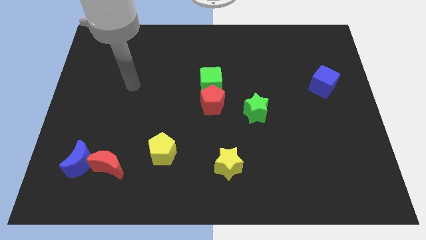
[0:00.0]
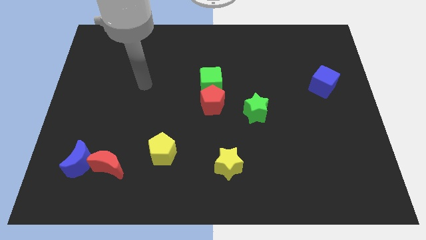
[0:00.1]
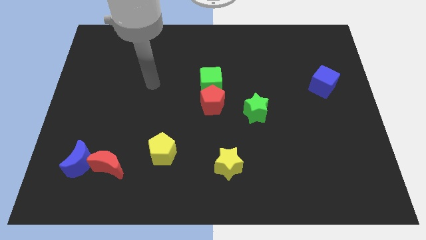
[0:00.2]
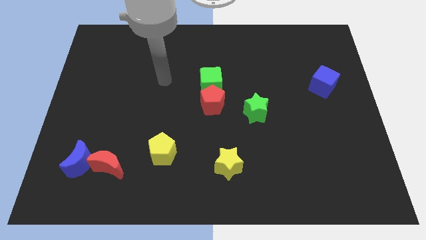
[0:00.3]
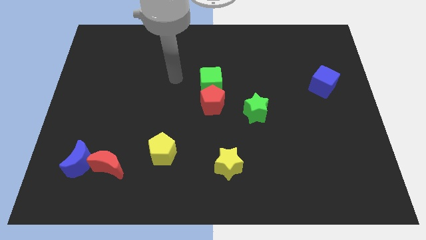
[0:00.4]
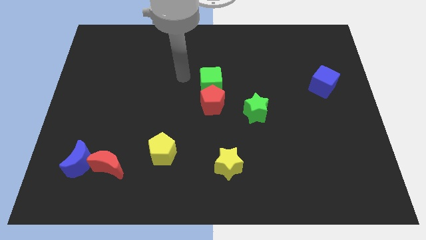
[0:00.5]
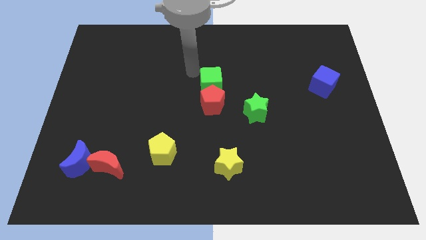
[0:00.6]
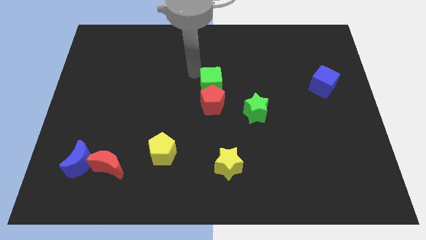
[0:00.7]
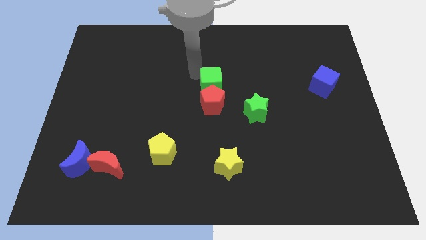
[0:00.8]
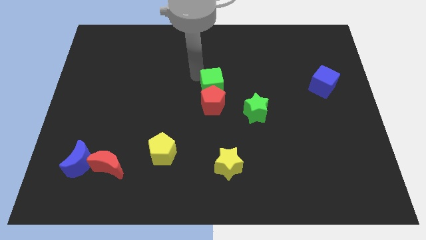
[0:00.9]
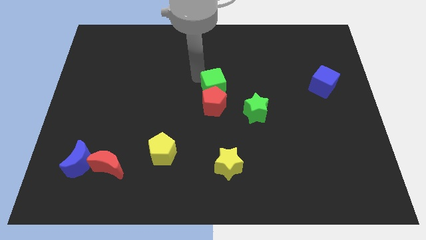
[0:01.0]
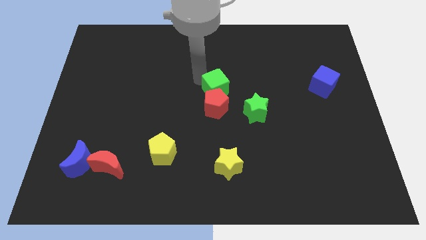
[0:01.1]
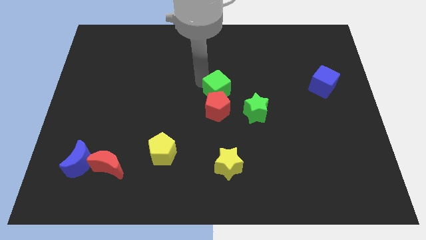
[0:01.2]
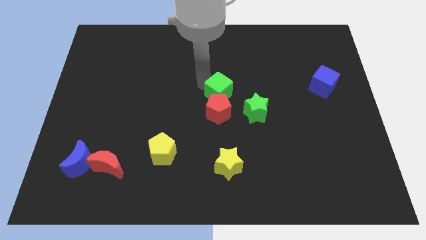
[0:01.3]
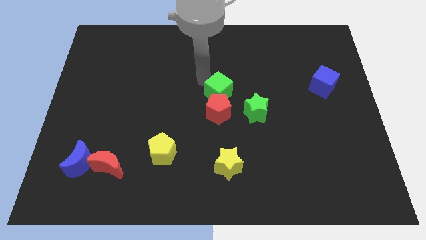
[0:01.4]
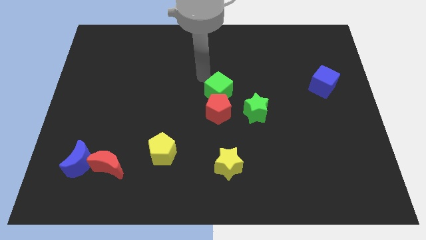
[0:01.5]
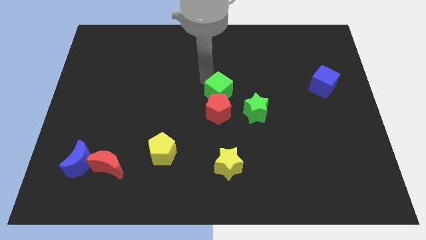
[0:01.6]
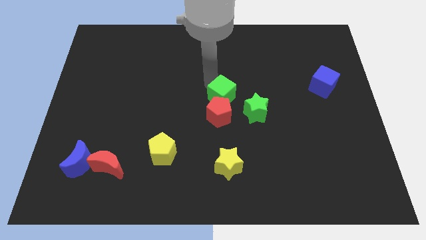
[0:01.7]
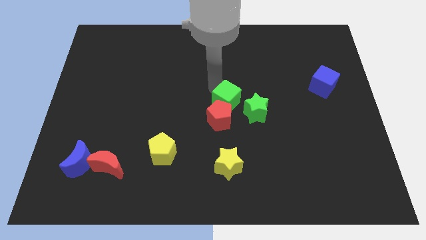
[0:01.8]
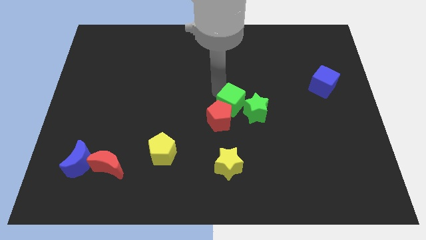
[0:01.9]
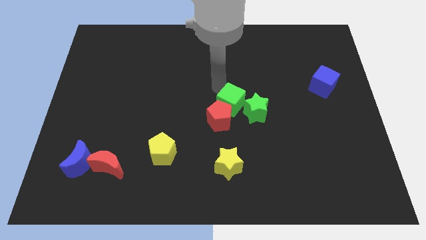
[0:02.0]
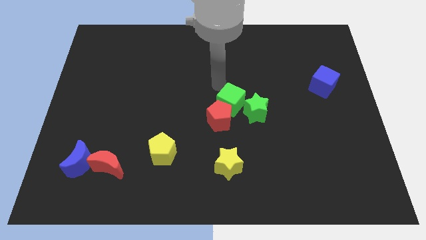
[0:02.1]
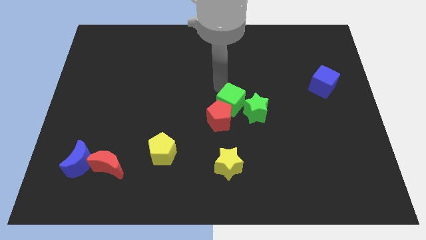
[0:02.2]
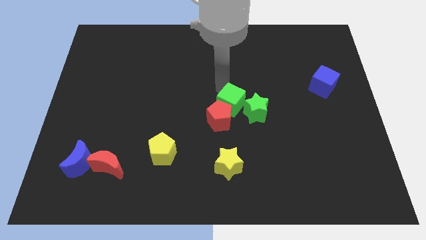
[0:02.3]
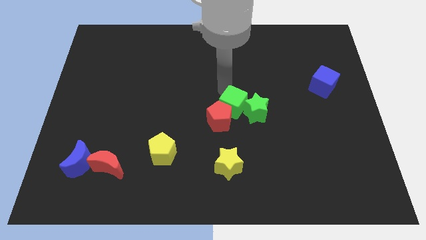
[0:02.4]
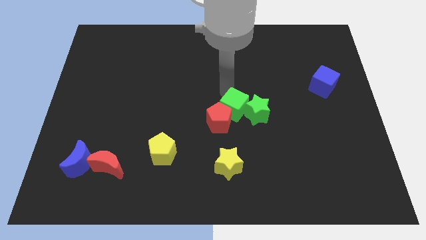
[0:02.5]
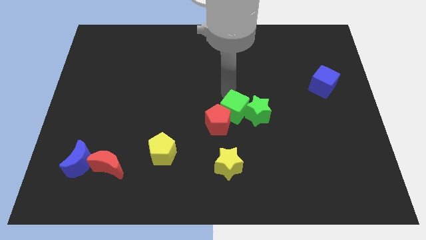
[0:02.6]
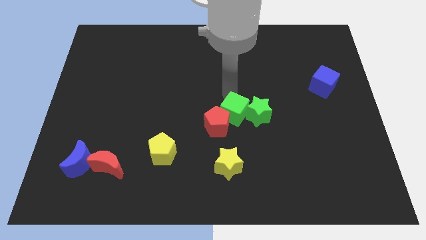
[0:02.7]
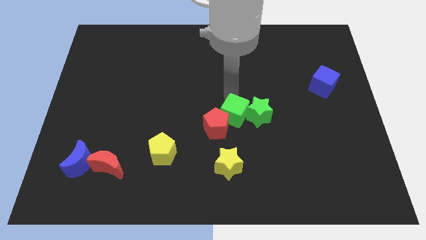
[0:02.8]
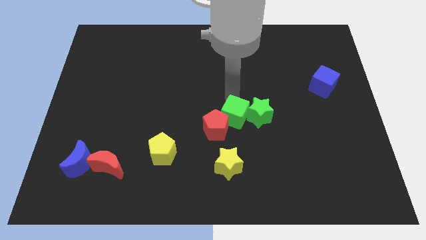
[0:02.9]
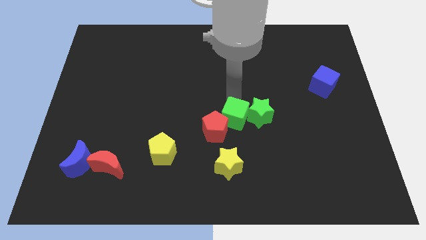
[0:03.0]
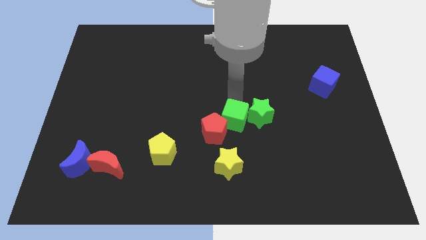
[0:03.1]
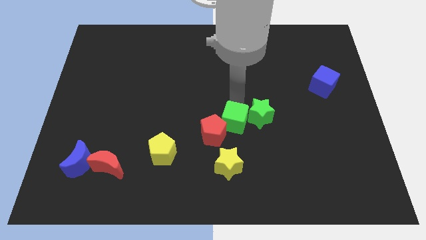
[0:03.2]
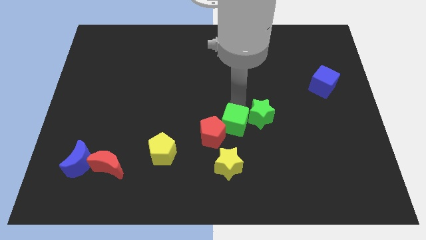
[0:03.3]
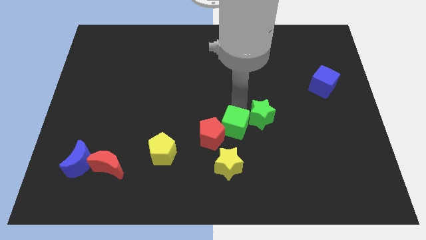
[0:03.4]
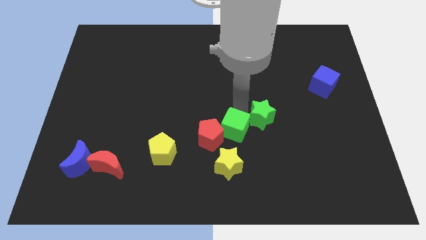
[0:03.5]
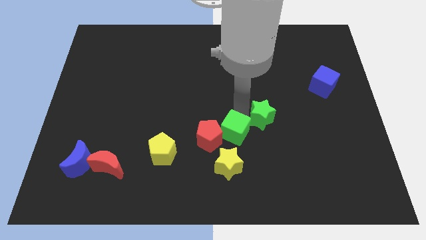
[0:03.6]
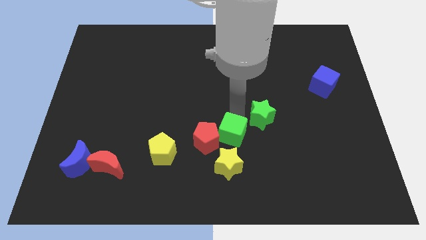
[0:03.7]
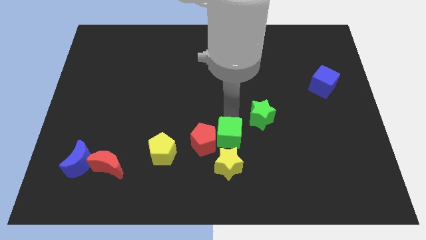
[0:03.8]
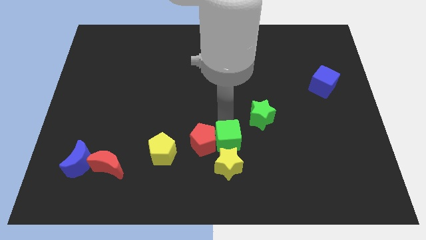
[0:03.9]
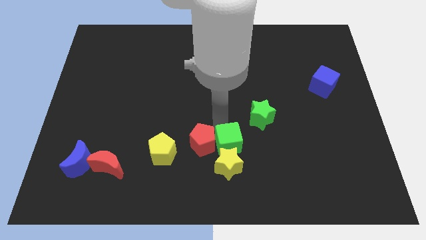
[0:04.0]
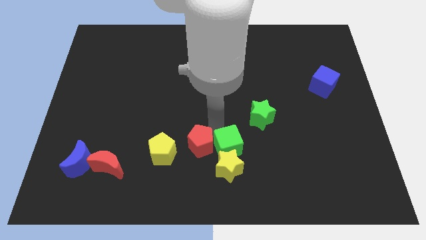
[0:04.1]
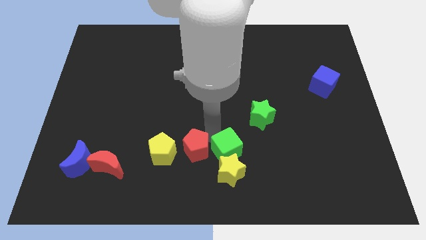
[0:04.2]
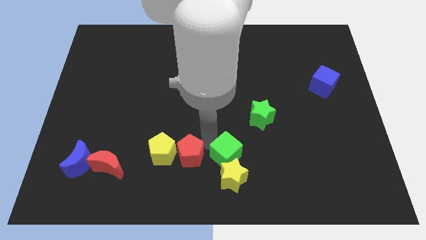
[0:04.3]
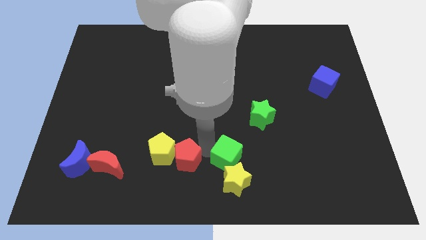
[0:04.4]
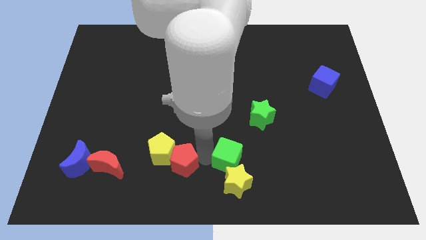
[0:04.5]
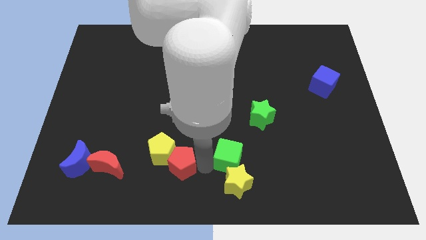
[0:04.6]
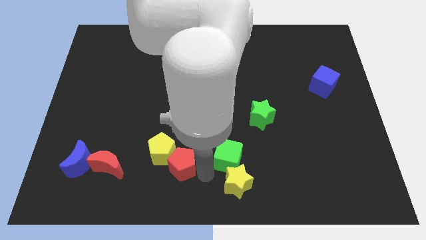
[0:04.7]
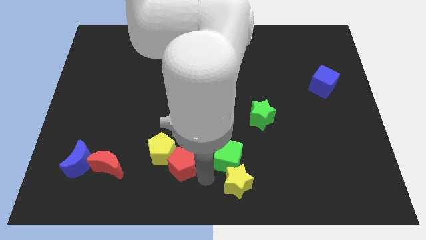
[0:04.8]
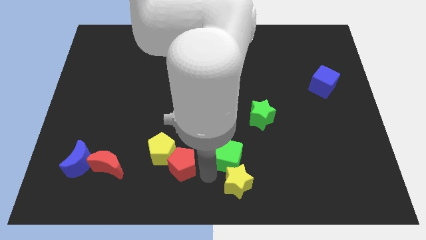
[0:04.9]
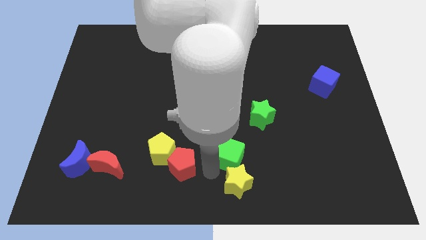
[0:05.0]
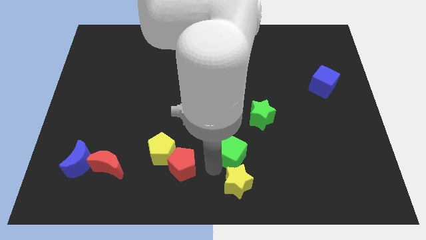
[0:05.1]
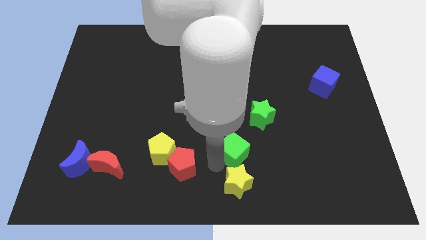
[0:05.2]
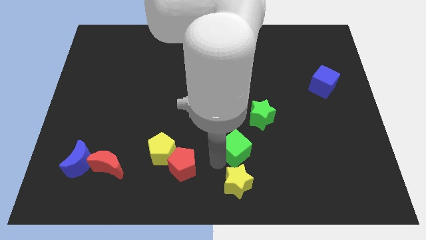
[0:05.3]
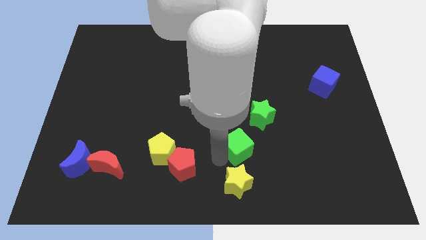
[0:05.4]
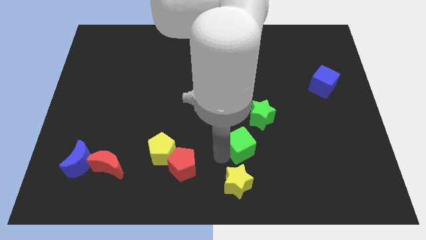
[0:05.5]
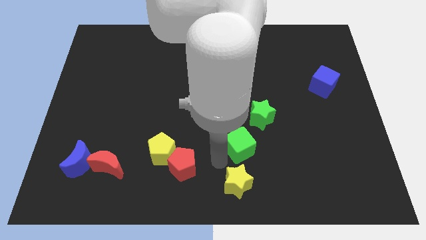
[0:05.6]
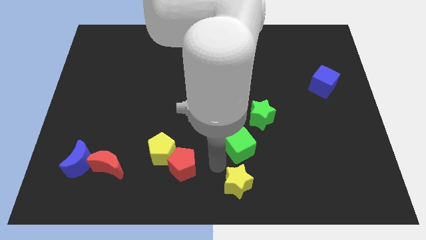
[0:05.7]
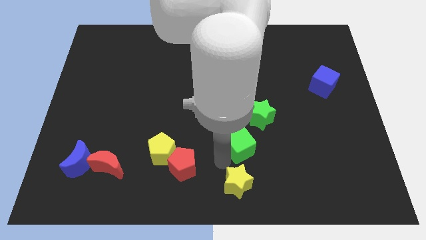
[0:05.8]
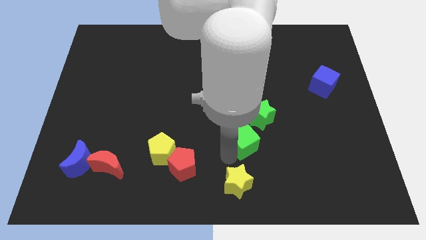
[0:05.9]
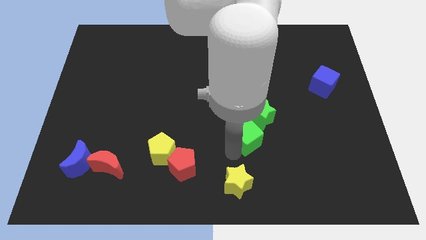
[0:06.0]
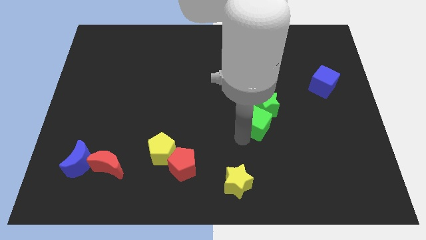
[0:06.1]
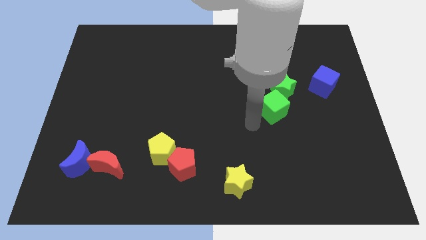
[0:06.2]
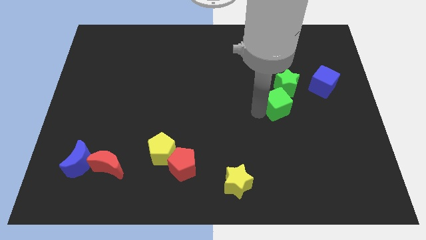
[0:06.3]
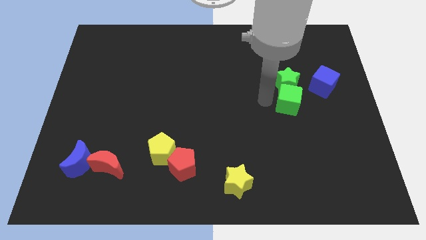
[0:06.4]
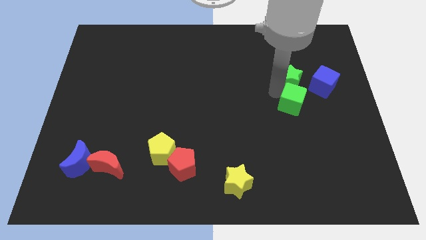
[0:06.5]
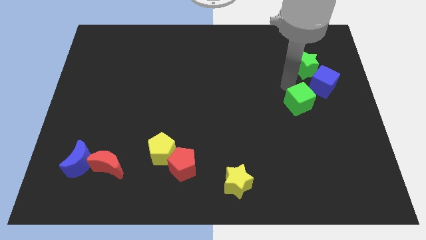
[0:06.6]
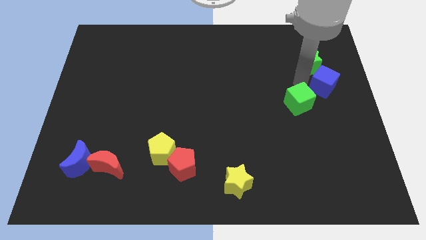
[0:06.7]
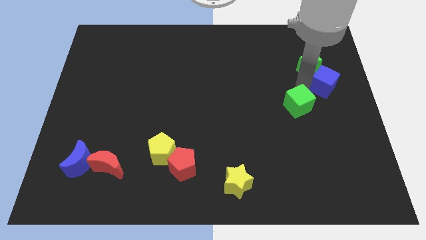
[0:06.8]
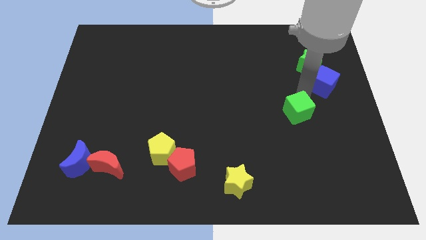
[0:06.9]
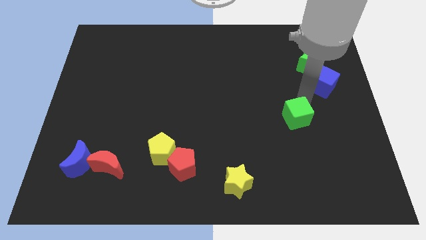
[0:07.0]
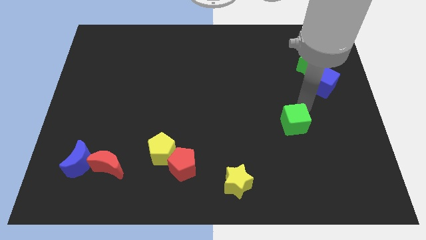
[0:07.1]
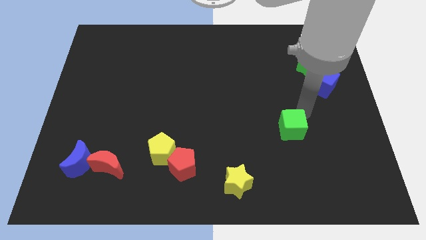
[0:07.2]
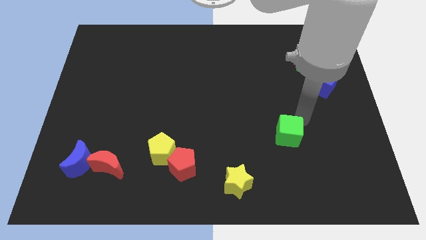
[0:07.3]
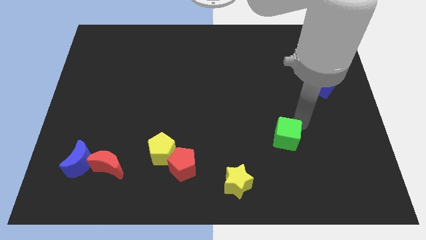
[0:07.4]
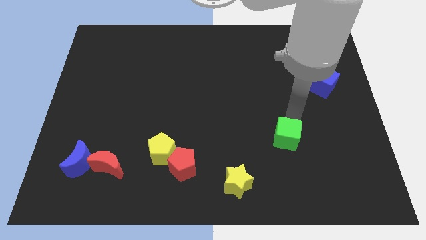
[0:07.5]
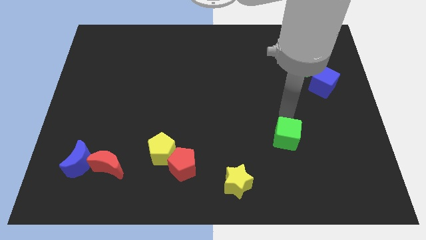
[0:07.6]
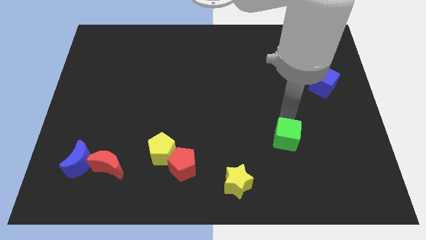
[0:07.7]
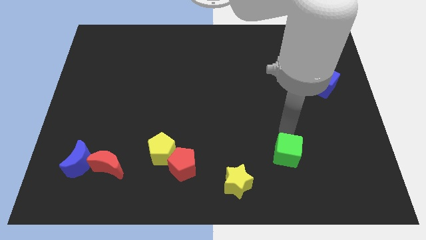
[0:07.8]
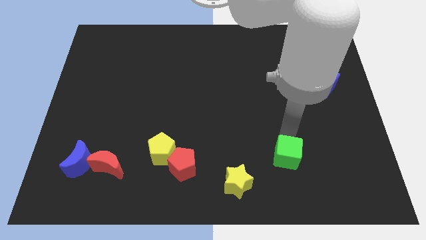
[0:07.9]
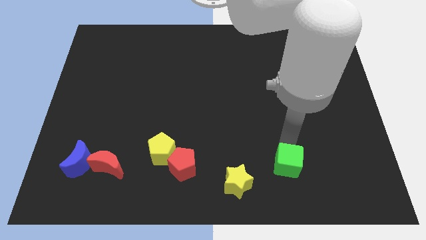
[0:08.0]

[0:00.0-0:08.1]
push the green cube to the right side of the yellow star
